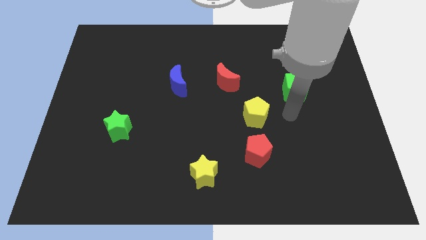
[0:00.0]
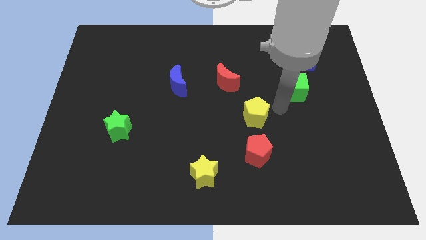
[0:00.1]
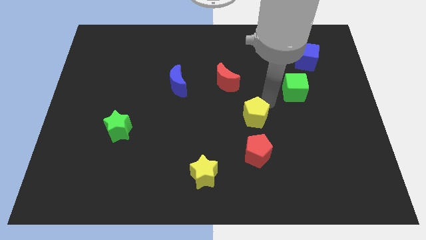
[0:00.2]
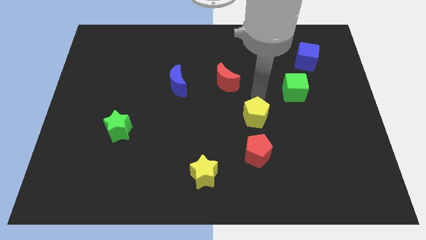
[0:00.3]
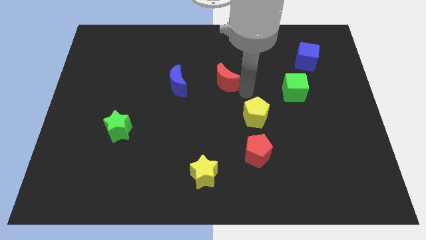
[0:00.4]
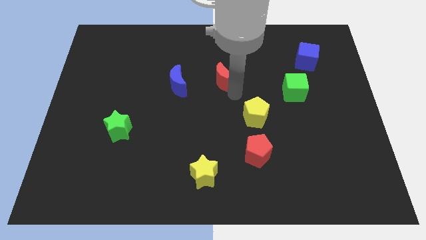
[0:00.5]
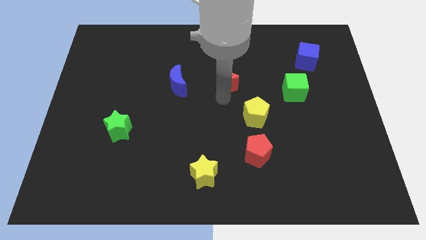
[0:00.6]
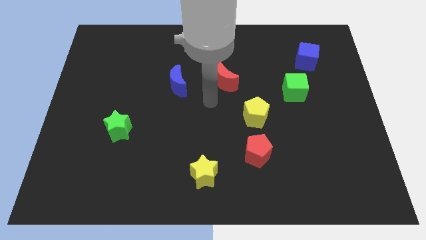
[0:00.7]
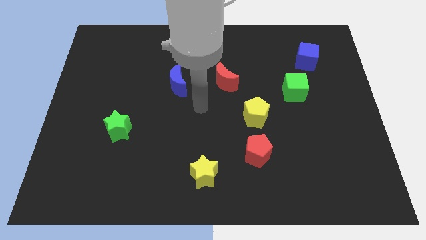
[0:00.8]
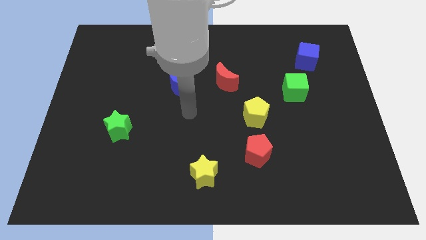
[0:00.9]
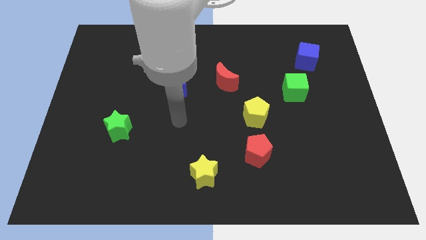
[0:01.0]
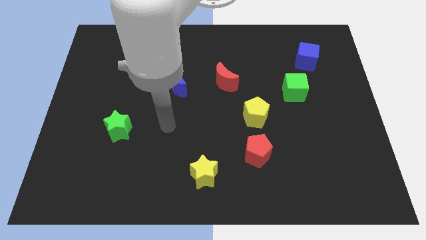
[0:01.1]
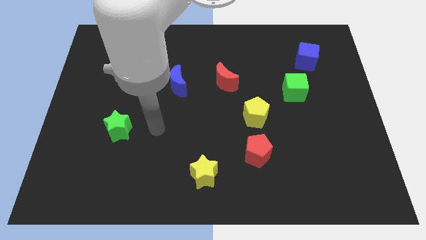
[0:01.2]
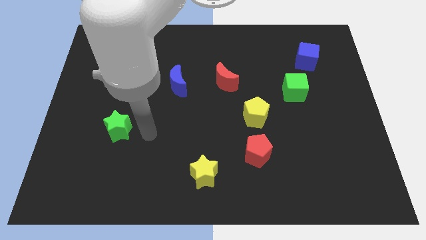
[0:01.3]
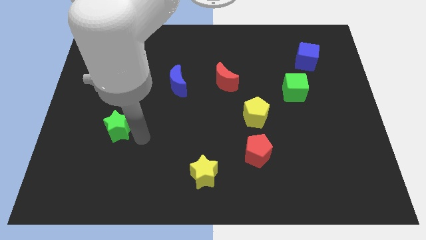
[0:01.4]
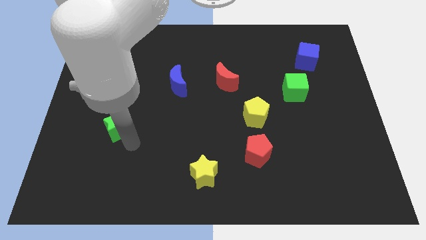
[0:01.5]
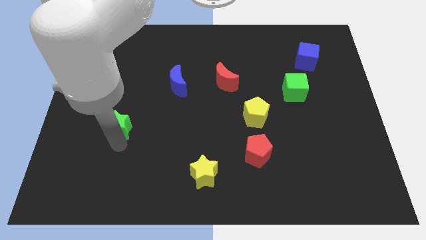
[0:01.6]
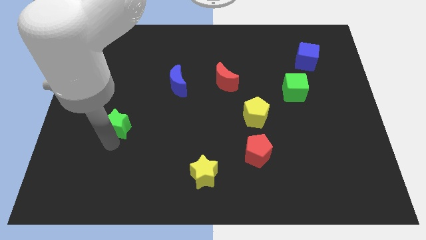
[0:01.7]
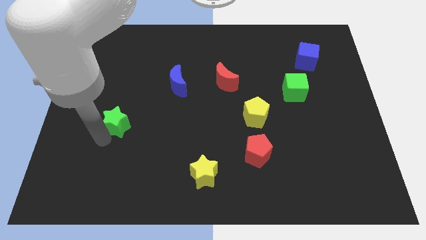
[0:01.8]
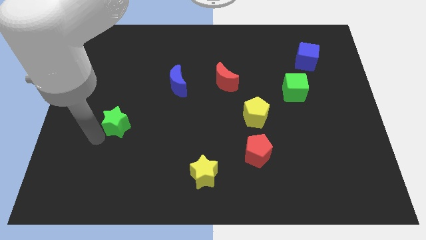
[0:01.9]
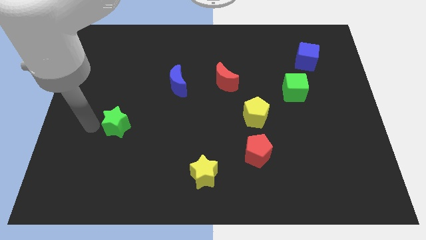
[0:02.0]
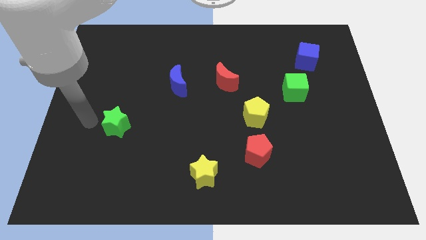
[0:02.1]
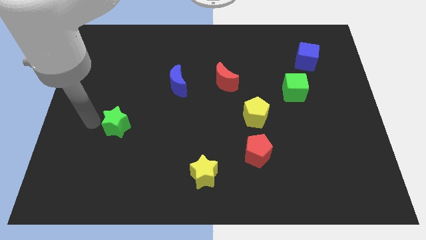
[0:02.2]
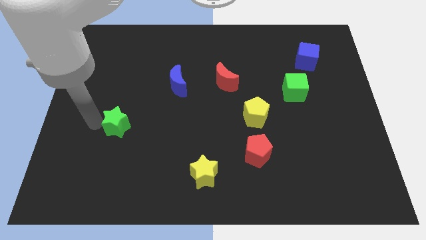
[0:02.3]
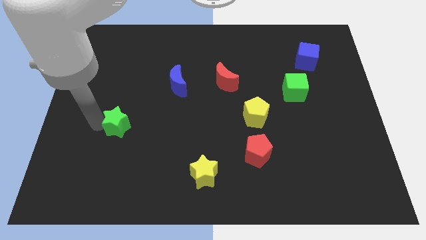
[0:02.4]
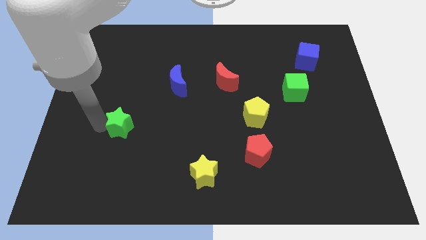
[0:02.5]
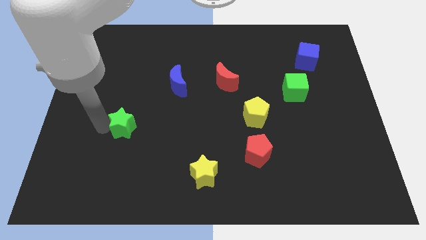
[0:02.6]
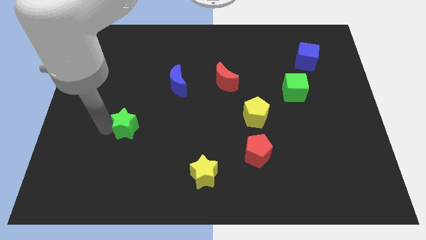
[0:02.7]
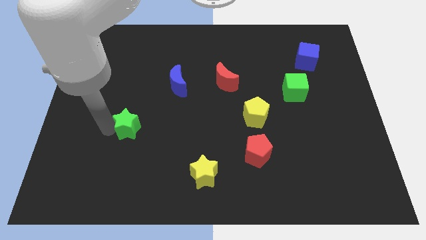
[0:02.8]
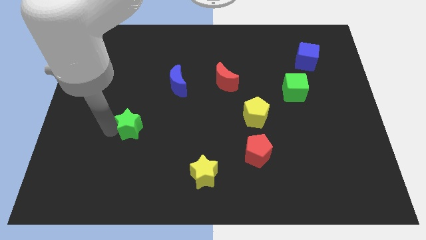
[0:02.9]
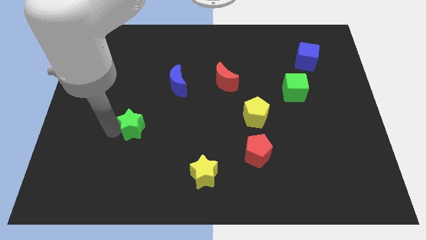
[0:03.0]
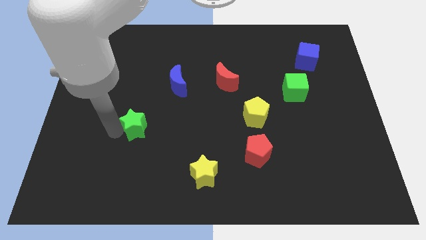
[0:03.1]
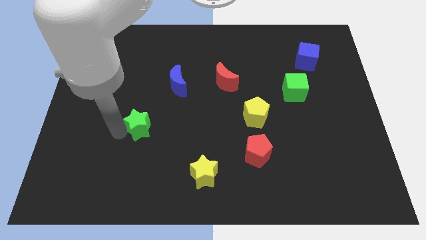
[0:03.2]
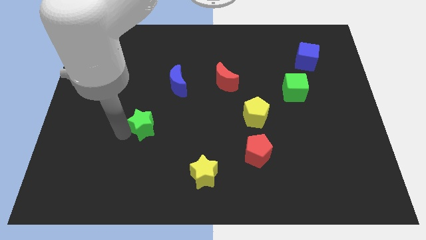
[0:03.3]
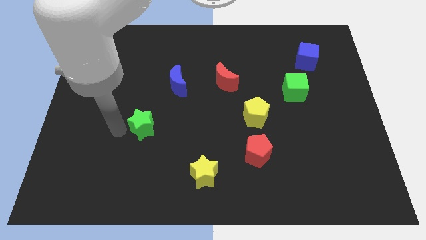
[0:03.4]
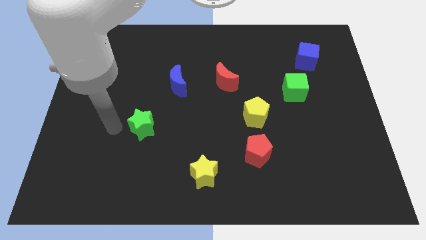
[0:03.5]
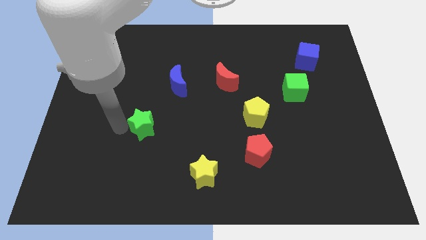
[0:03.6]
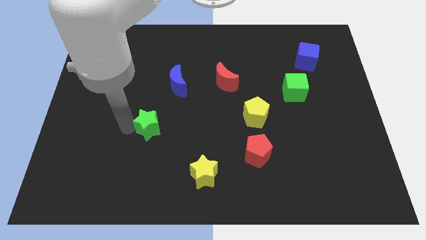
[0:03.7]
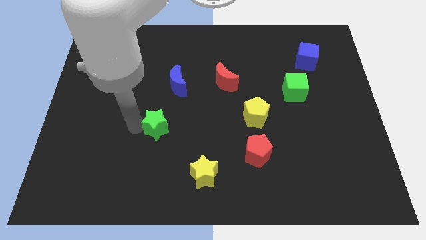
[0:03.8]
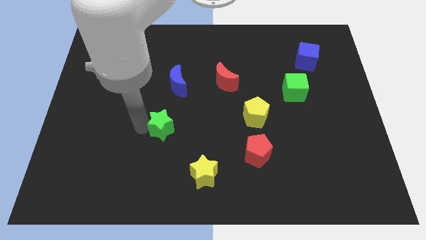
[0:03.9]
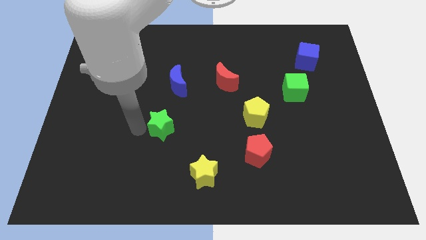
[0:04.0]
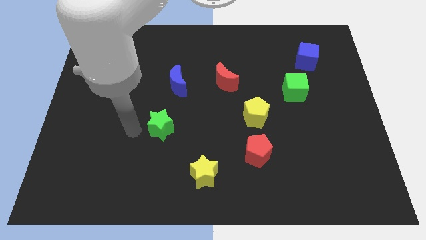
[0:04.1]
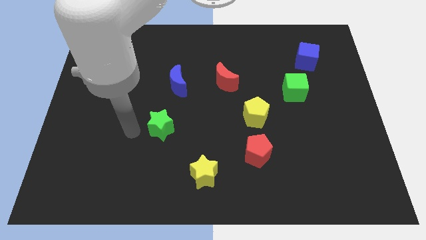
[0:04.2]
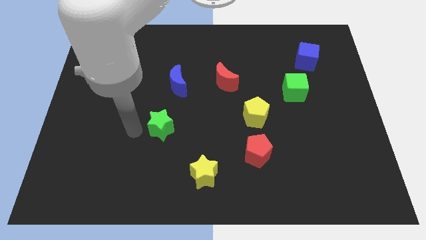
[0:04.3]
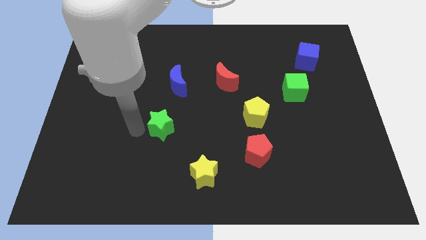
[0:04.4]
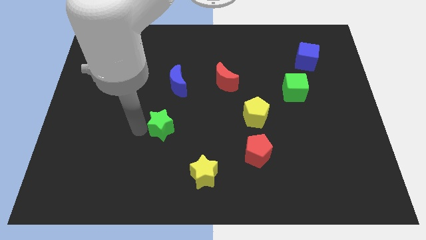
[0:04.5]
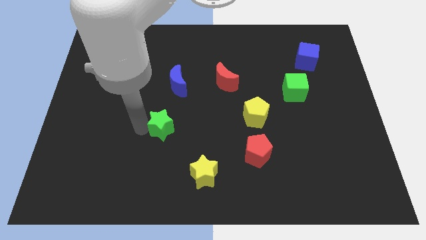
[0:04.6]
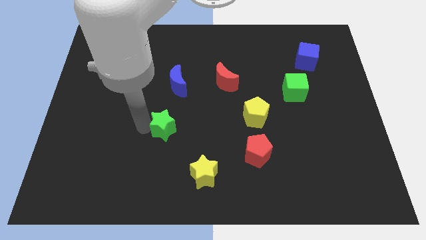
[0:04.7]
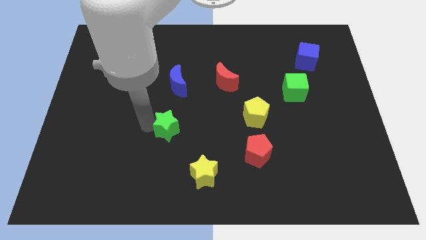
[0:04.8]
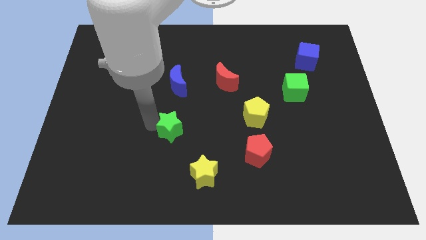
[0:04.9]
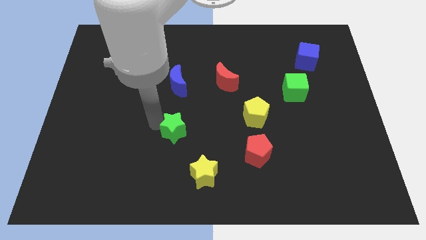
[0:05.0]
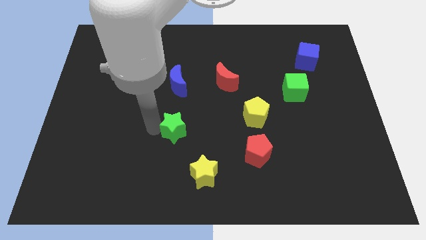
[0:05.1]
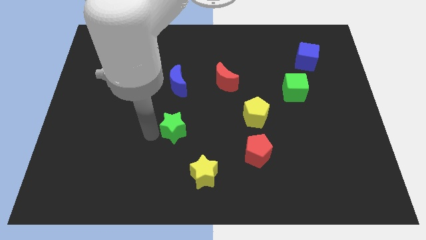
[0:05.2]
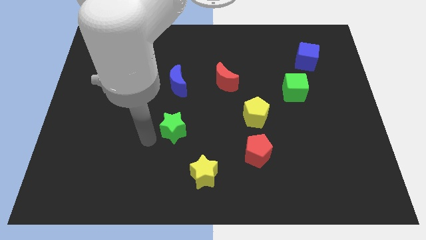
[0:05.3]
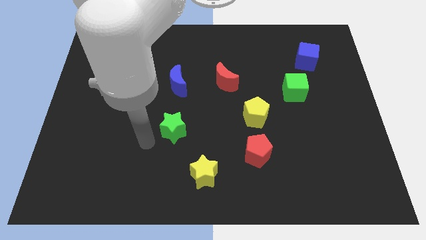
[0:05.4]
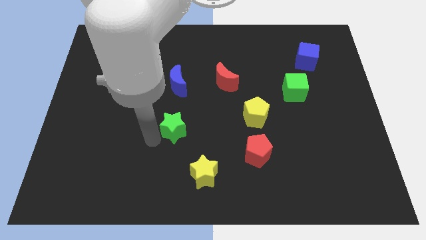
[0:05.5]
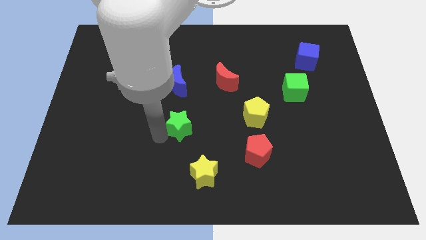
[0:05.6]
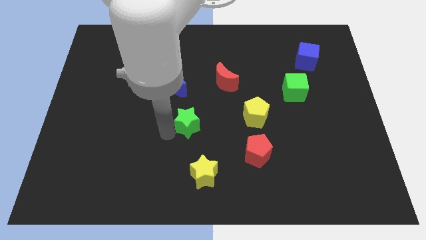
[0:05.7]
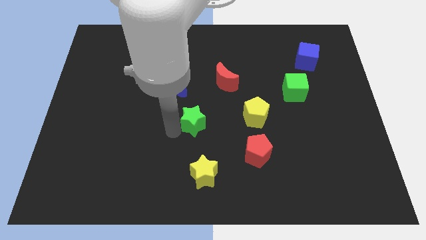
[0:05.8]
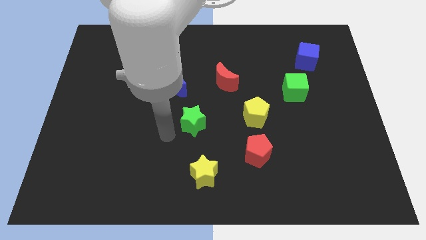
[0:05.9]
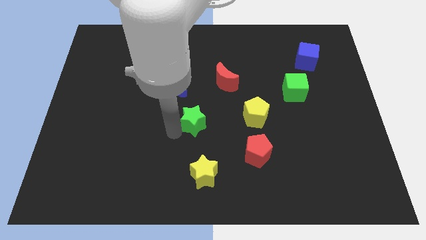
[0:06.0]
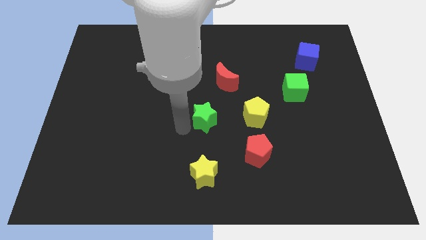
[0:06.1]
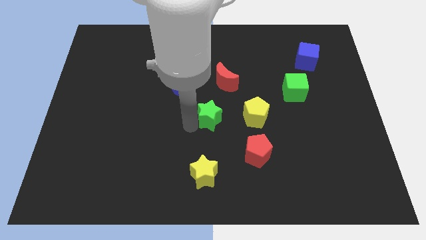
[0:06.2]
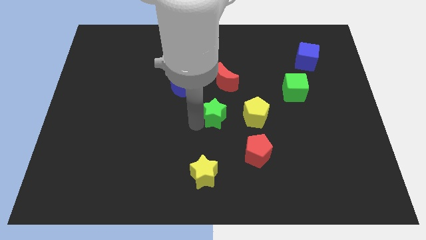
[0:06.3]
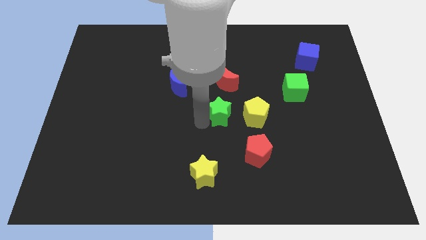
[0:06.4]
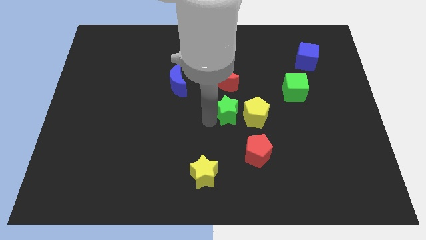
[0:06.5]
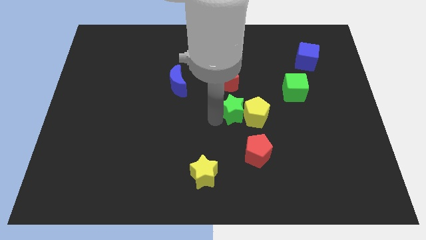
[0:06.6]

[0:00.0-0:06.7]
put the green star to the top of the red pentagon
